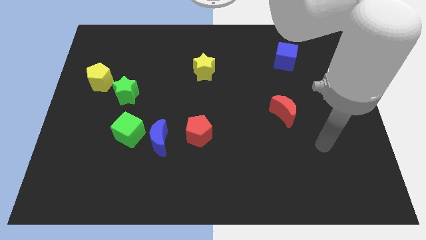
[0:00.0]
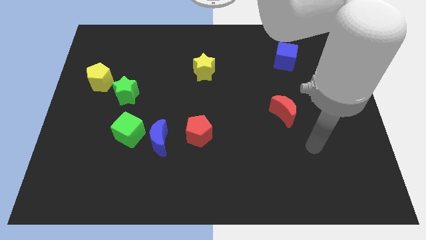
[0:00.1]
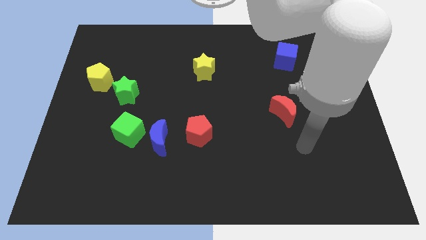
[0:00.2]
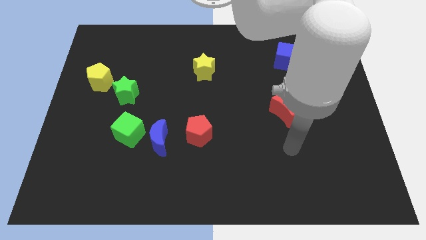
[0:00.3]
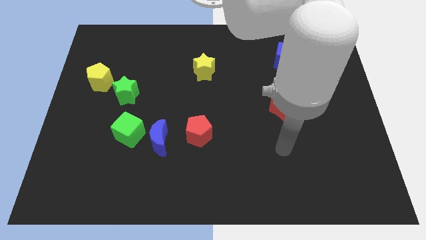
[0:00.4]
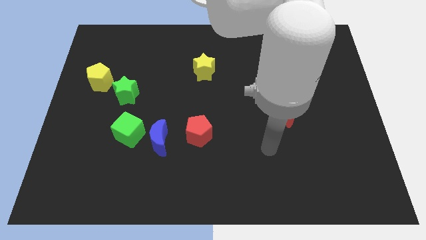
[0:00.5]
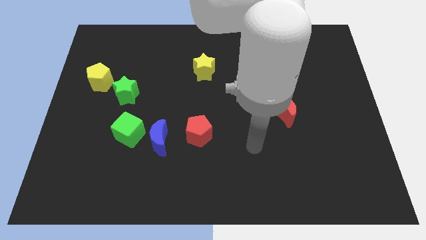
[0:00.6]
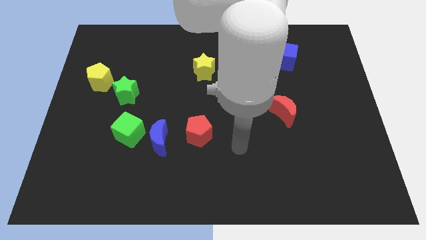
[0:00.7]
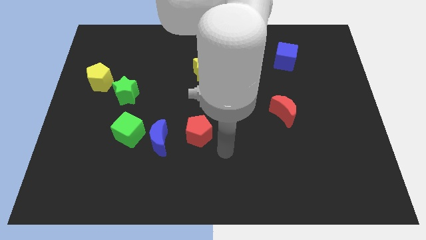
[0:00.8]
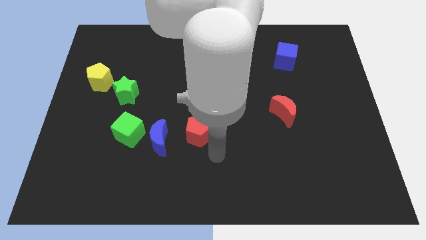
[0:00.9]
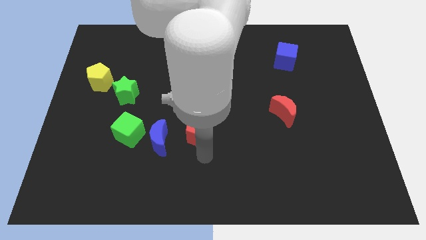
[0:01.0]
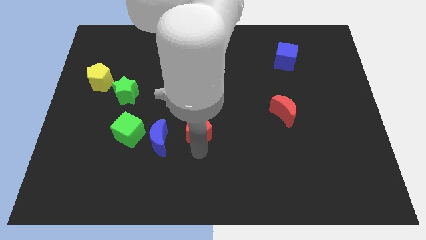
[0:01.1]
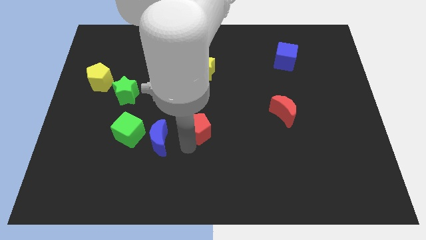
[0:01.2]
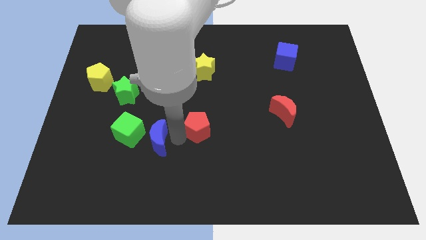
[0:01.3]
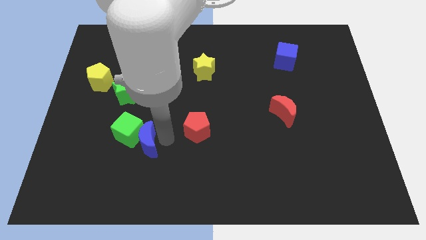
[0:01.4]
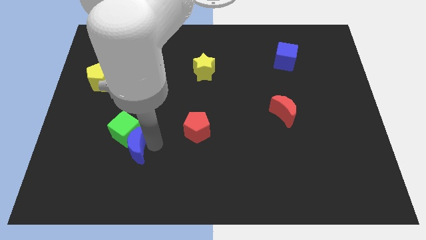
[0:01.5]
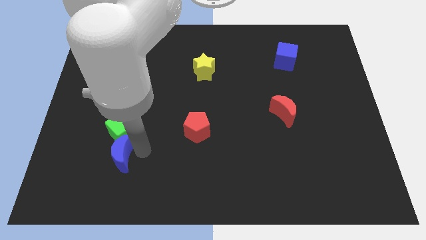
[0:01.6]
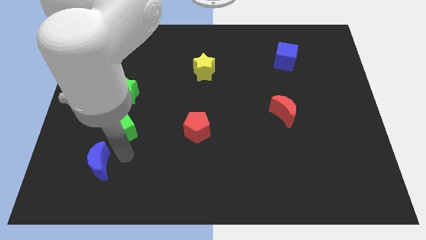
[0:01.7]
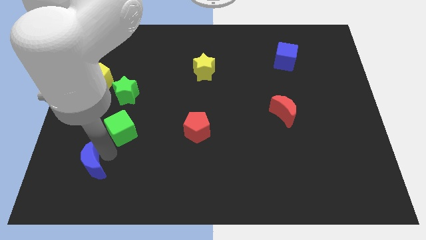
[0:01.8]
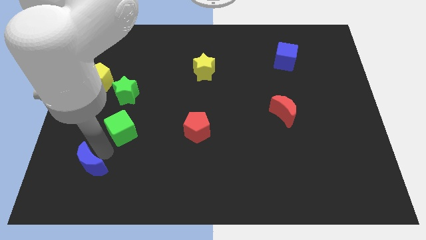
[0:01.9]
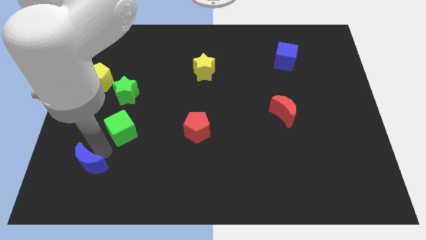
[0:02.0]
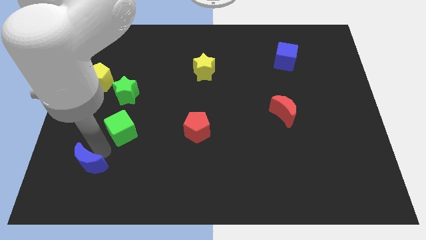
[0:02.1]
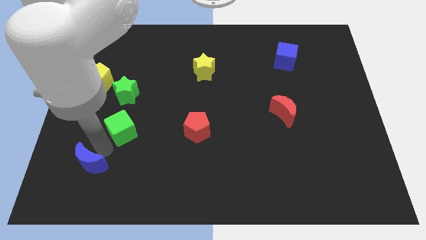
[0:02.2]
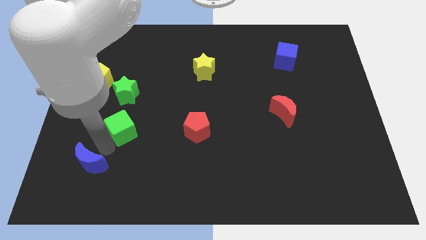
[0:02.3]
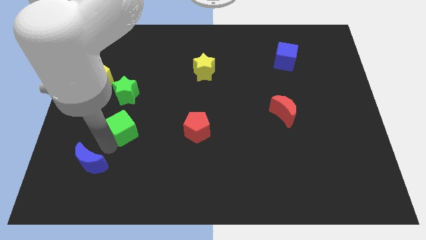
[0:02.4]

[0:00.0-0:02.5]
move the green cube away from the blue moon

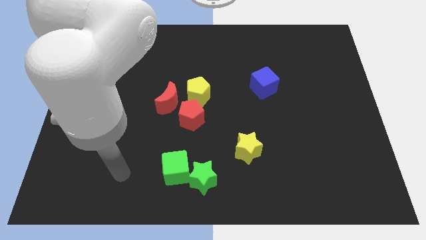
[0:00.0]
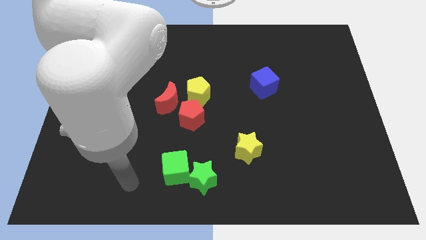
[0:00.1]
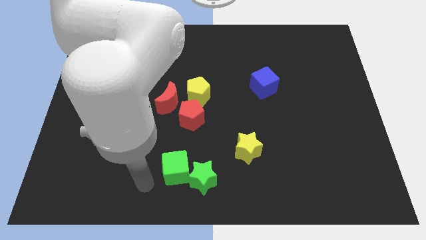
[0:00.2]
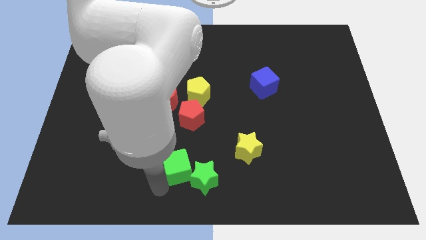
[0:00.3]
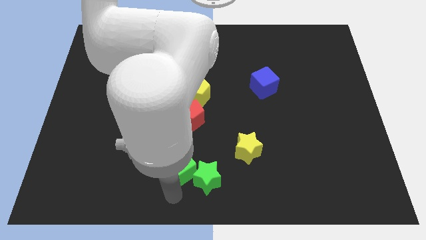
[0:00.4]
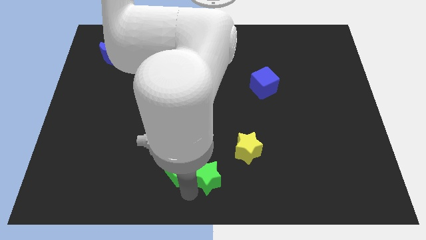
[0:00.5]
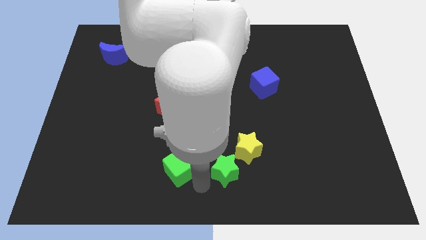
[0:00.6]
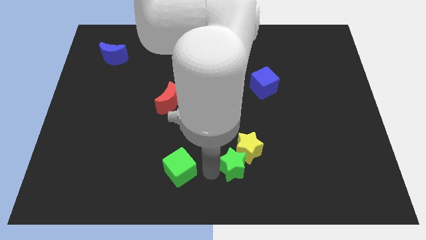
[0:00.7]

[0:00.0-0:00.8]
separate the green cube from the green star

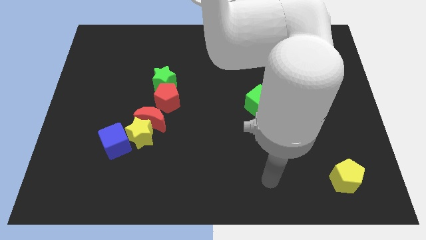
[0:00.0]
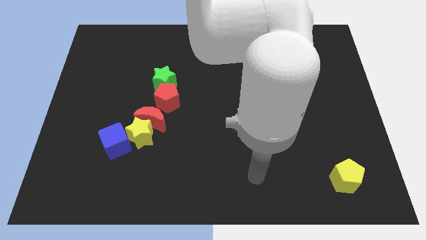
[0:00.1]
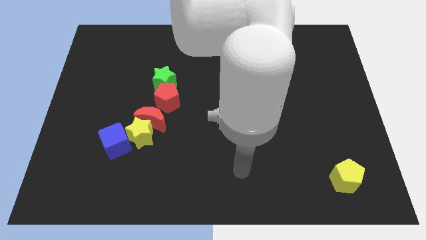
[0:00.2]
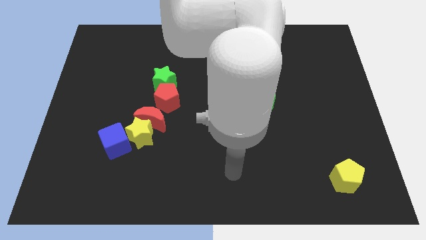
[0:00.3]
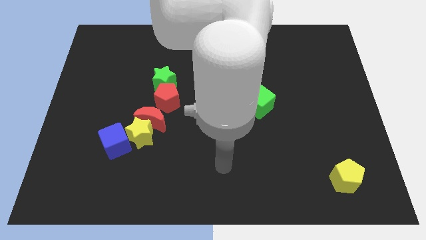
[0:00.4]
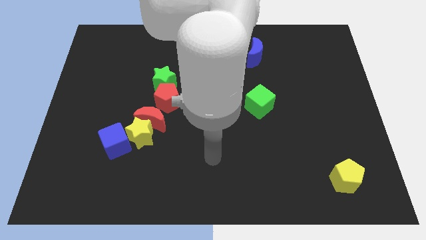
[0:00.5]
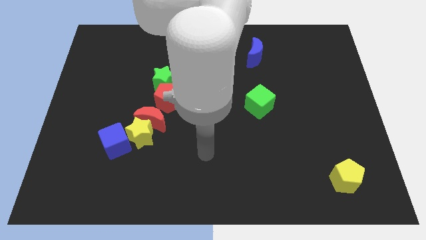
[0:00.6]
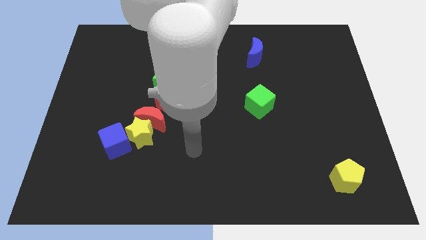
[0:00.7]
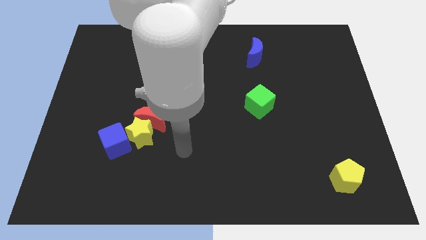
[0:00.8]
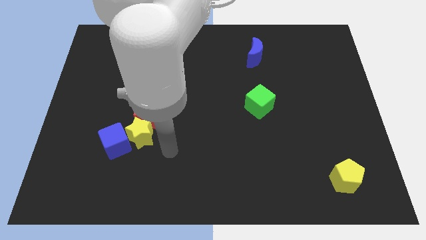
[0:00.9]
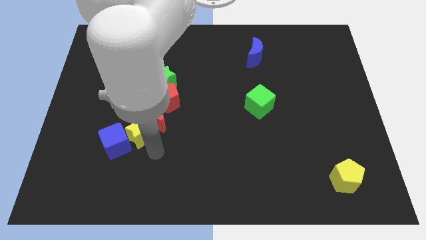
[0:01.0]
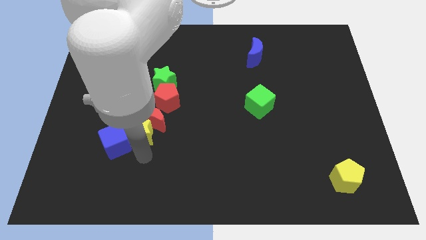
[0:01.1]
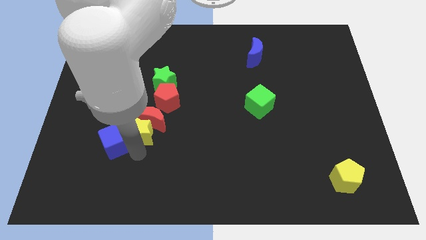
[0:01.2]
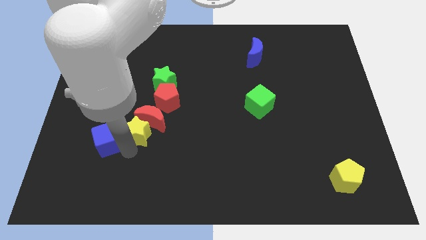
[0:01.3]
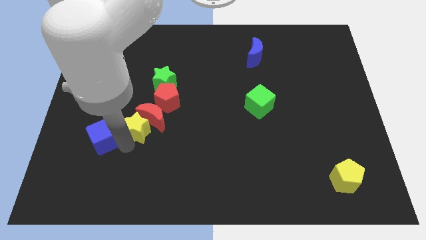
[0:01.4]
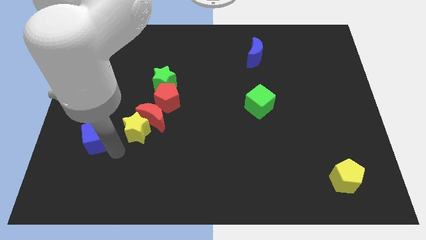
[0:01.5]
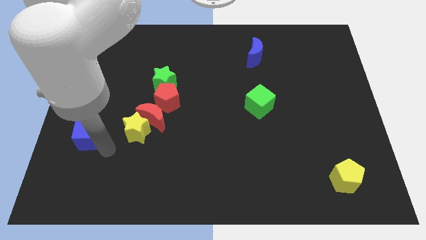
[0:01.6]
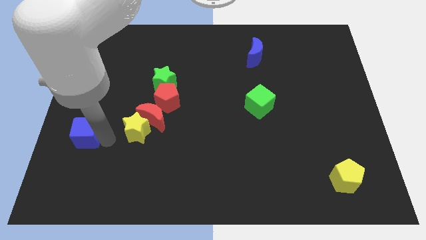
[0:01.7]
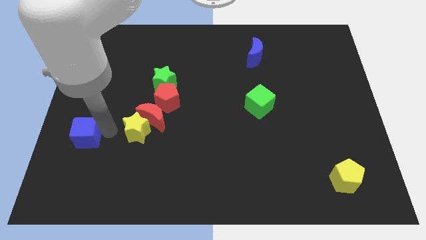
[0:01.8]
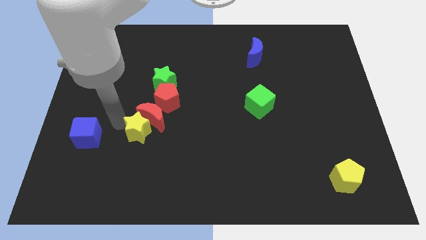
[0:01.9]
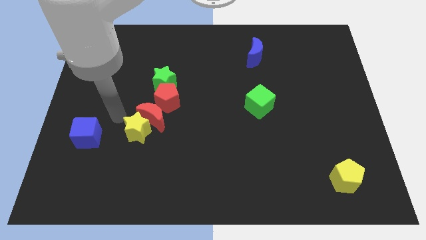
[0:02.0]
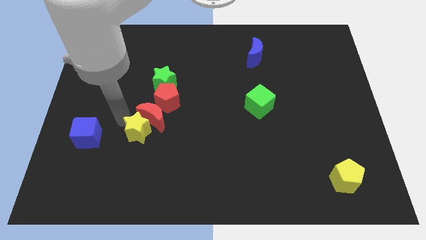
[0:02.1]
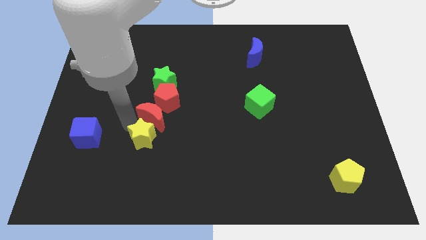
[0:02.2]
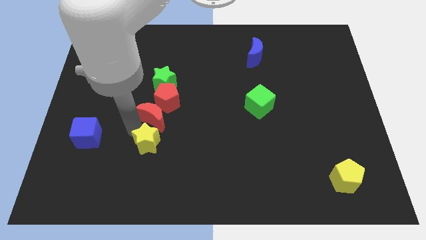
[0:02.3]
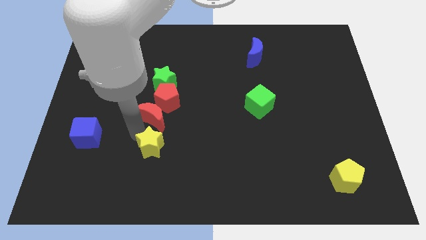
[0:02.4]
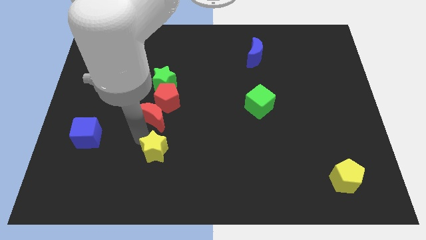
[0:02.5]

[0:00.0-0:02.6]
move the yellow star away from the red moon and blue cube

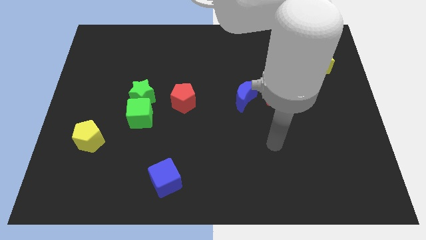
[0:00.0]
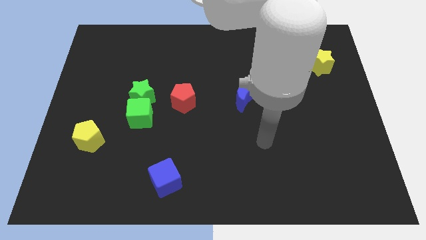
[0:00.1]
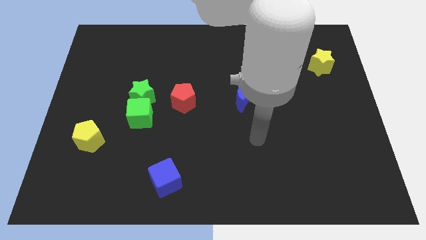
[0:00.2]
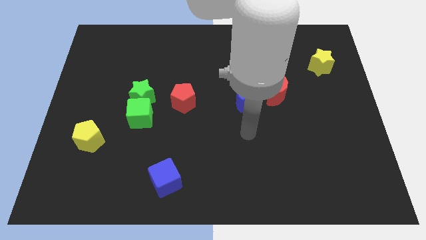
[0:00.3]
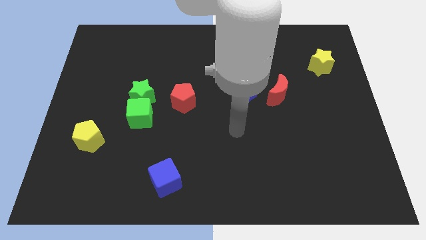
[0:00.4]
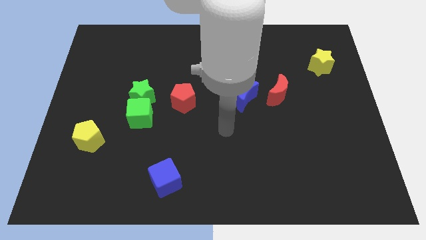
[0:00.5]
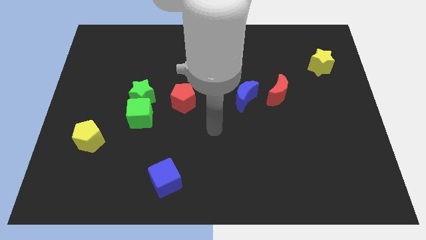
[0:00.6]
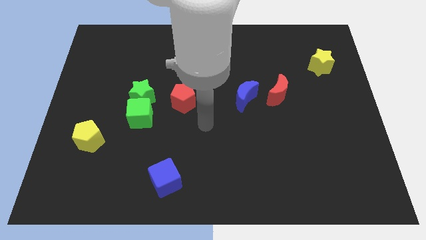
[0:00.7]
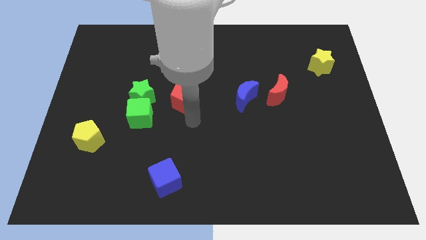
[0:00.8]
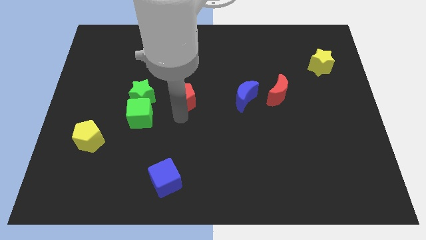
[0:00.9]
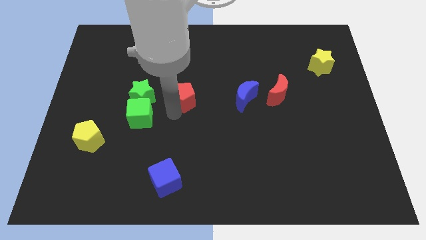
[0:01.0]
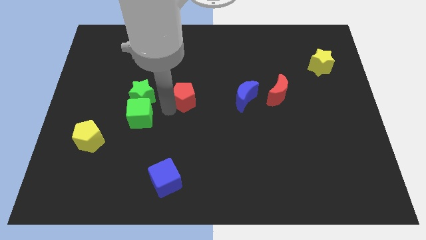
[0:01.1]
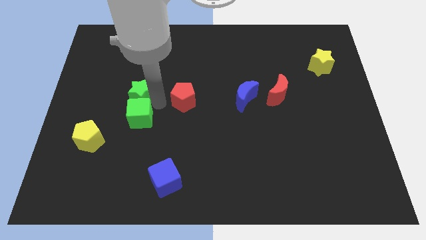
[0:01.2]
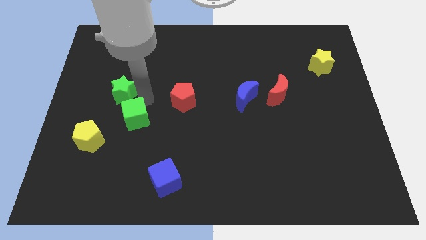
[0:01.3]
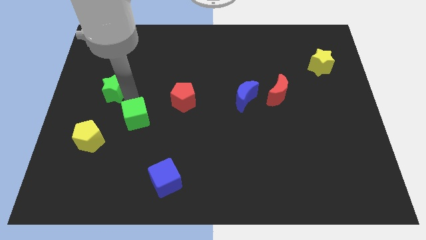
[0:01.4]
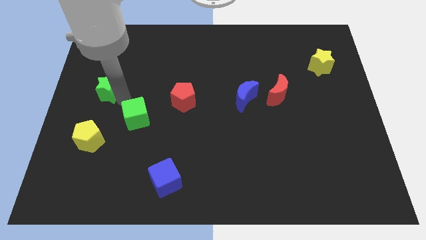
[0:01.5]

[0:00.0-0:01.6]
move the green cube away from the green star

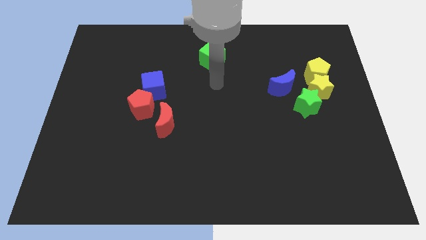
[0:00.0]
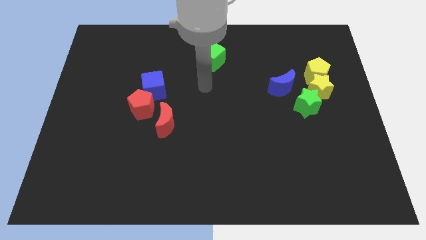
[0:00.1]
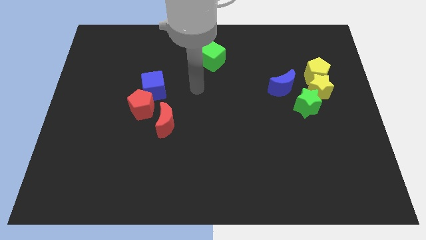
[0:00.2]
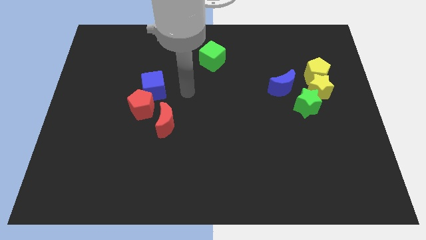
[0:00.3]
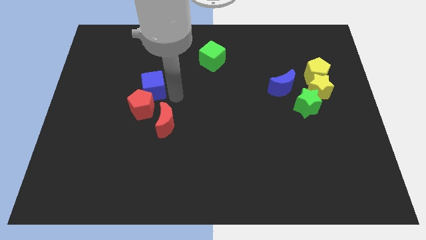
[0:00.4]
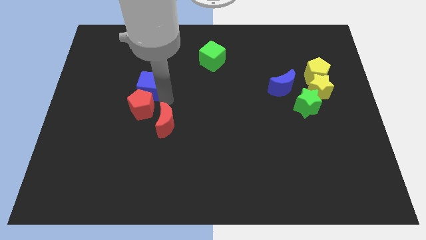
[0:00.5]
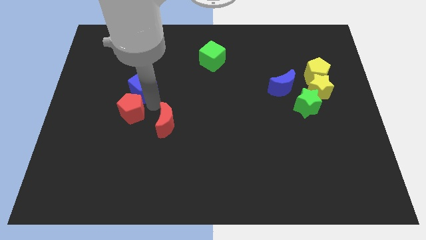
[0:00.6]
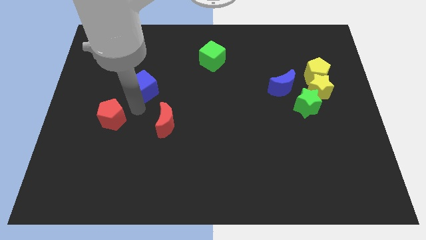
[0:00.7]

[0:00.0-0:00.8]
separate the blue cube from the red pentagon

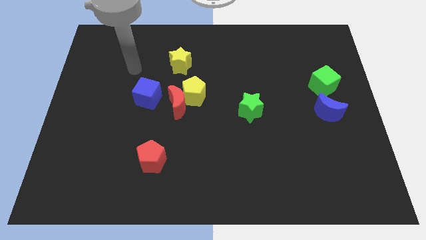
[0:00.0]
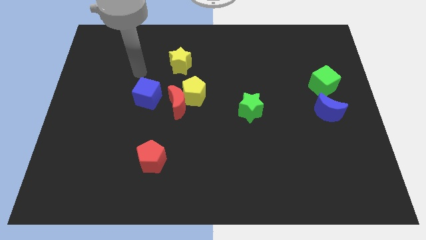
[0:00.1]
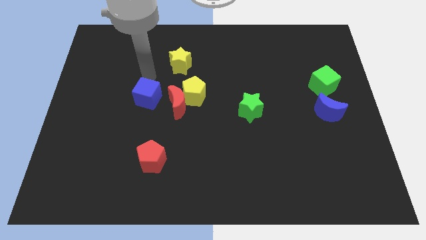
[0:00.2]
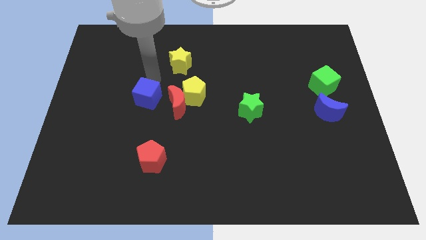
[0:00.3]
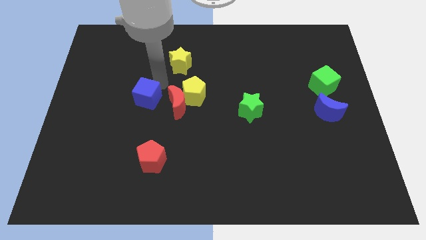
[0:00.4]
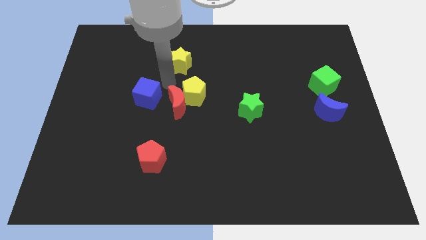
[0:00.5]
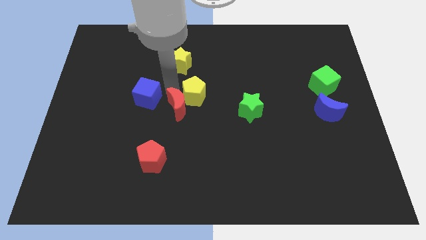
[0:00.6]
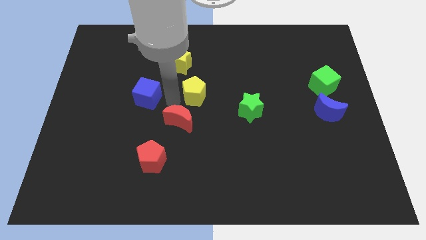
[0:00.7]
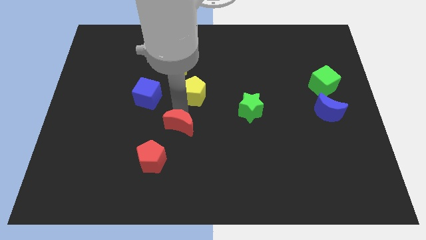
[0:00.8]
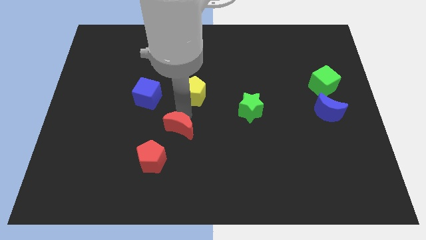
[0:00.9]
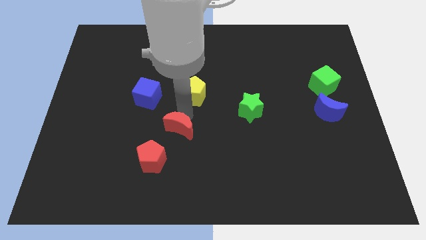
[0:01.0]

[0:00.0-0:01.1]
pull the yellow pentagon apart from the red moon
